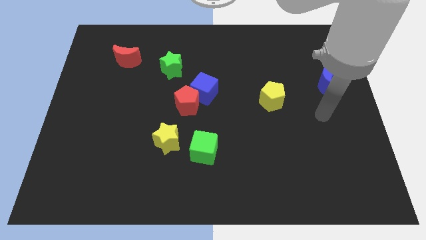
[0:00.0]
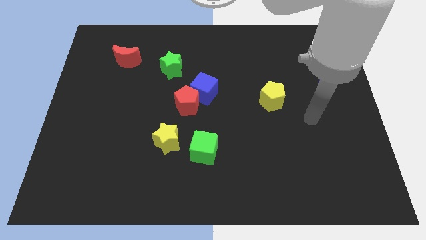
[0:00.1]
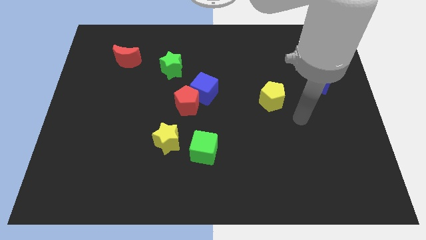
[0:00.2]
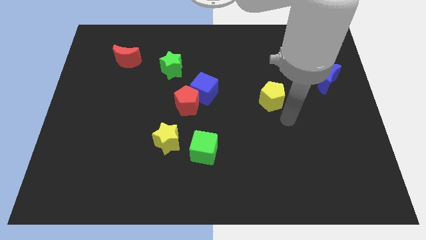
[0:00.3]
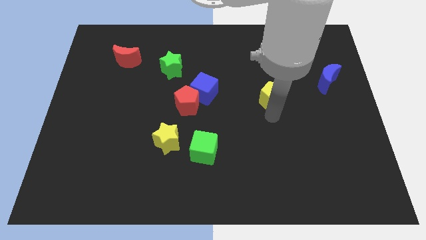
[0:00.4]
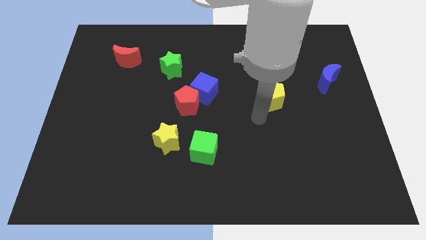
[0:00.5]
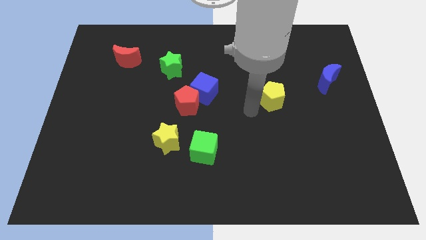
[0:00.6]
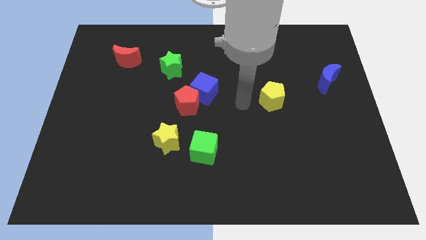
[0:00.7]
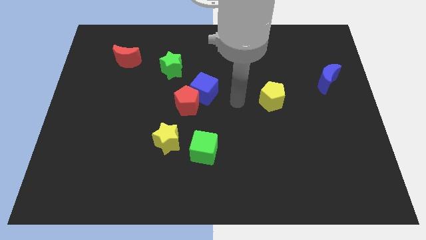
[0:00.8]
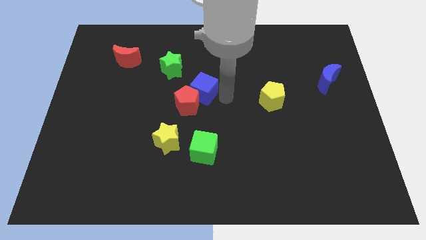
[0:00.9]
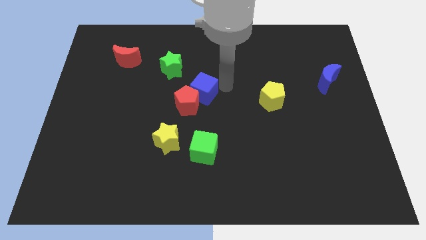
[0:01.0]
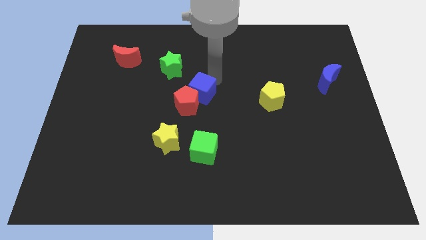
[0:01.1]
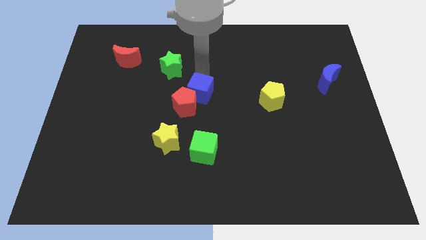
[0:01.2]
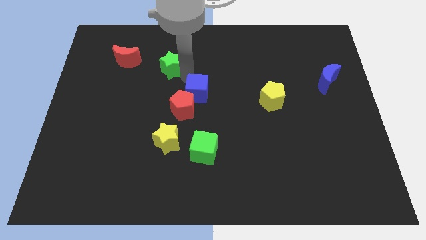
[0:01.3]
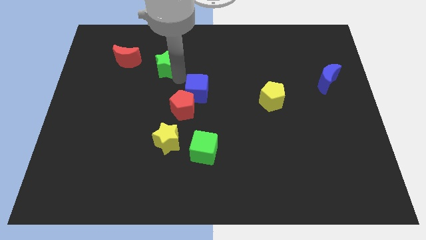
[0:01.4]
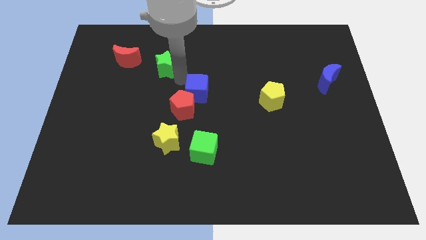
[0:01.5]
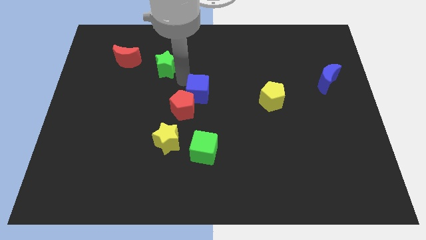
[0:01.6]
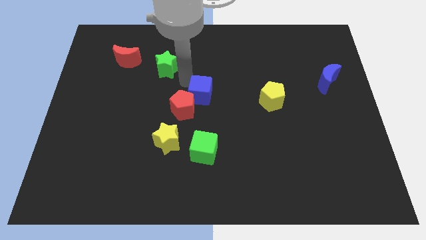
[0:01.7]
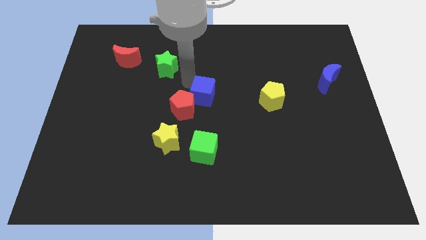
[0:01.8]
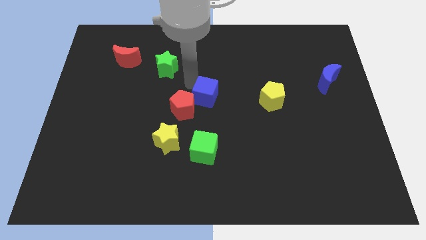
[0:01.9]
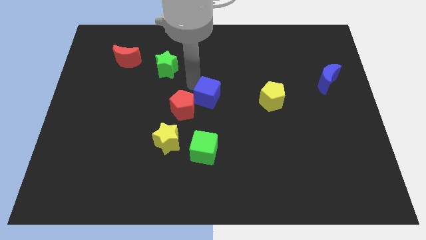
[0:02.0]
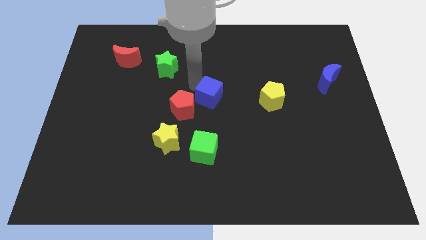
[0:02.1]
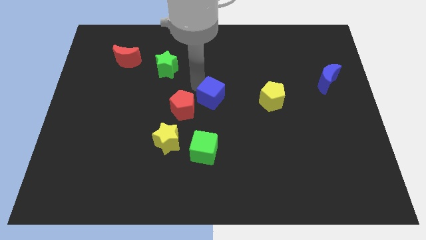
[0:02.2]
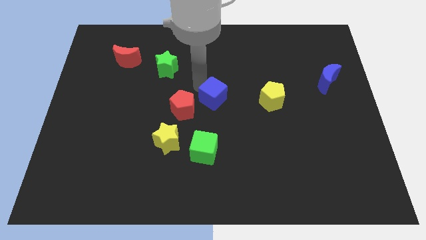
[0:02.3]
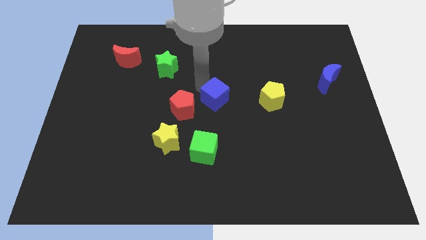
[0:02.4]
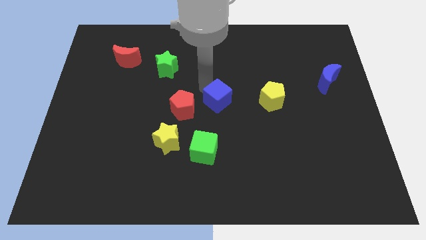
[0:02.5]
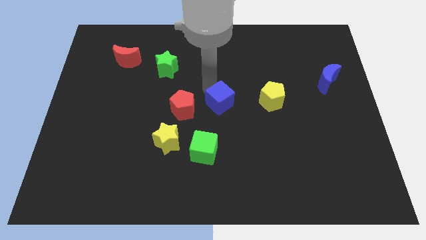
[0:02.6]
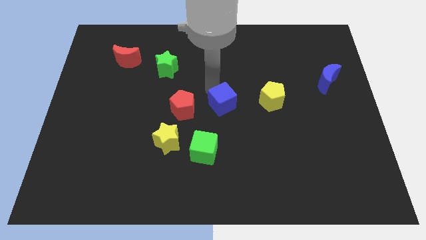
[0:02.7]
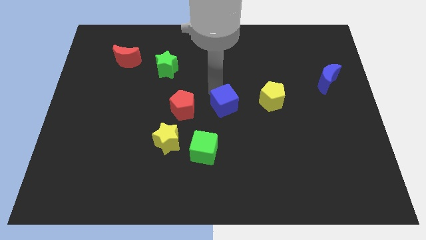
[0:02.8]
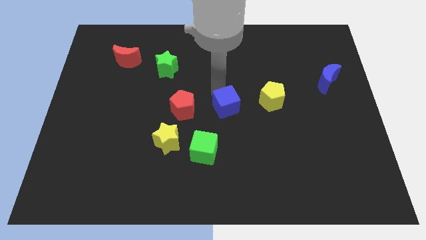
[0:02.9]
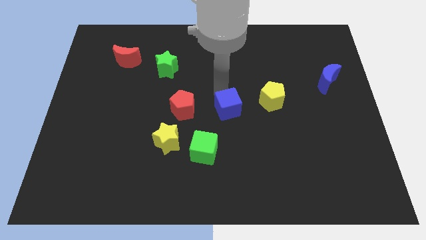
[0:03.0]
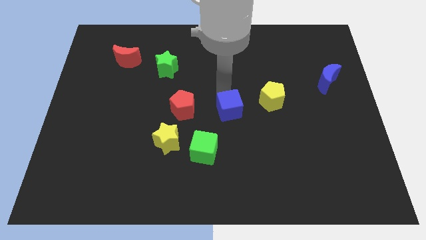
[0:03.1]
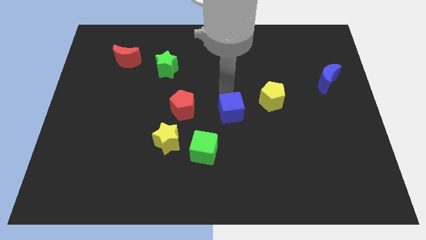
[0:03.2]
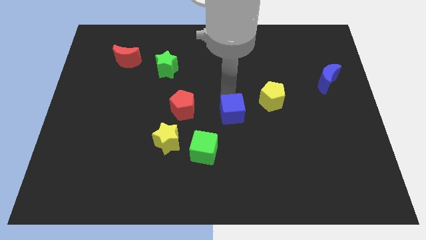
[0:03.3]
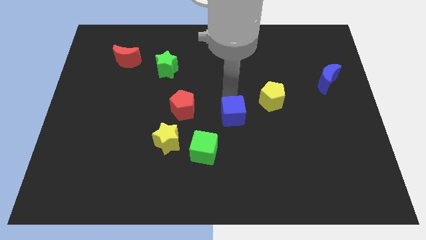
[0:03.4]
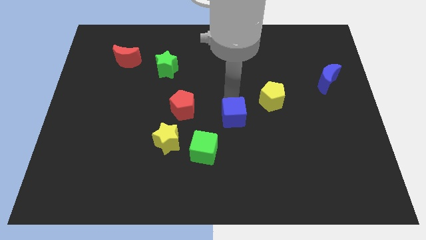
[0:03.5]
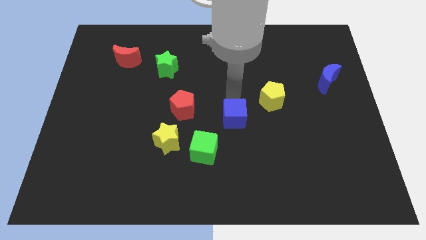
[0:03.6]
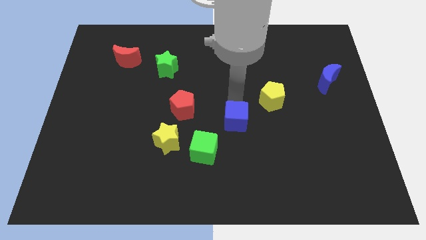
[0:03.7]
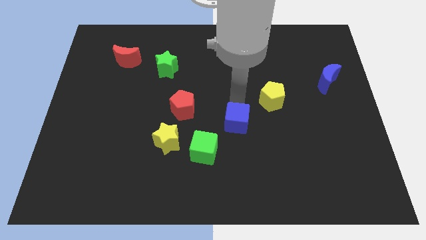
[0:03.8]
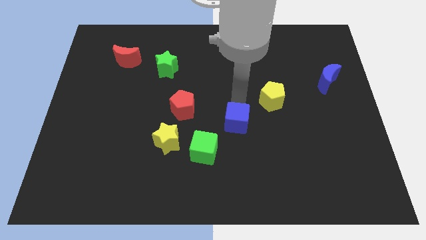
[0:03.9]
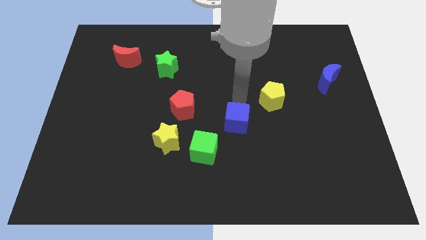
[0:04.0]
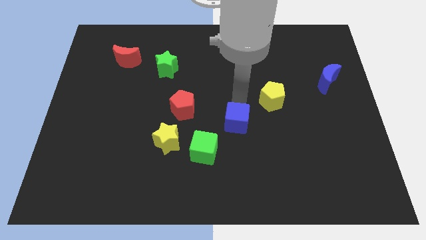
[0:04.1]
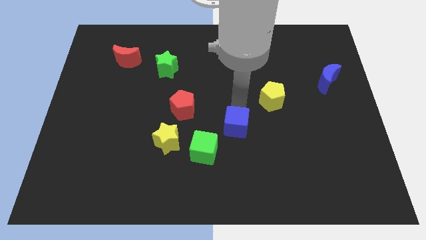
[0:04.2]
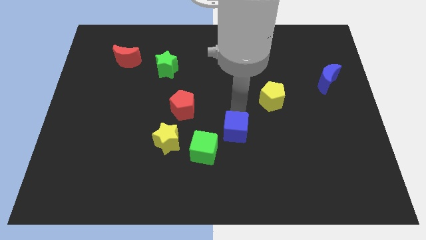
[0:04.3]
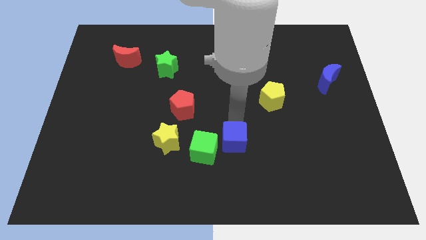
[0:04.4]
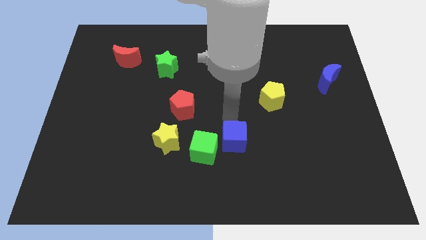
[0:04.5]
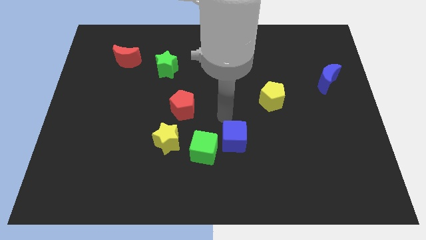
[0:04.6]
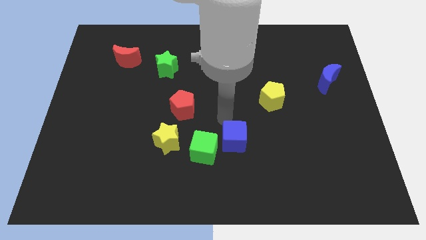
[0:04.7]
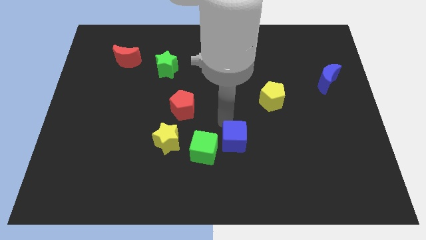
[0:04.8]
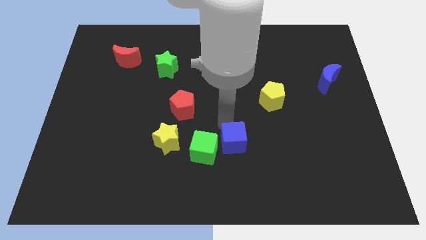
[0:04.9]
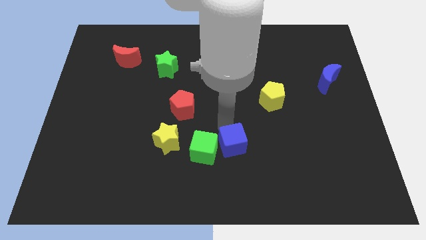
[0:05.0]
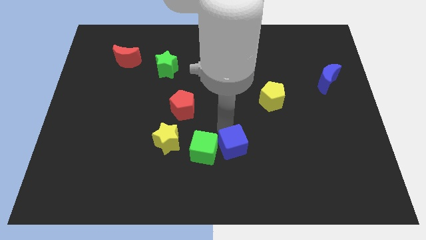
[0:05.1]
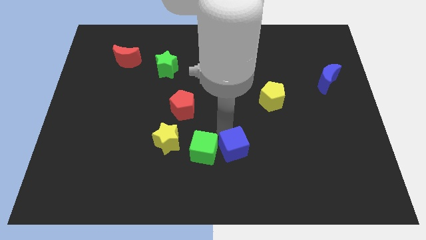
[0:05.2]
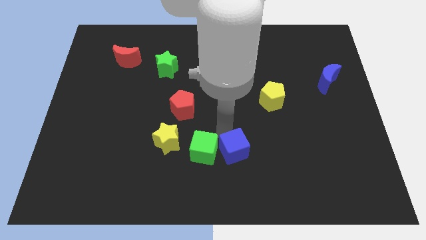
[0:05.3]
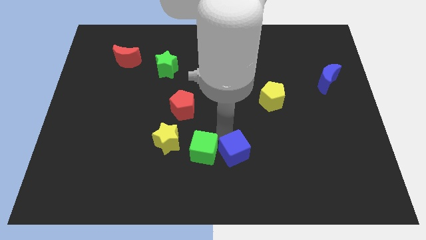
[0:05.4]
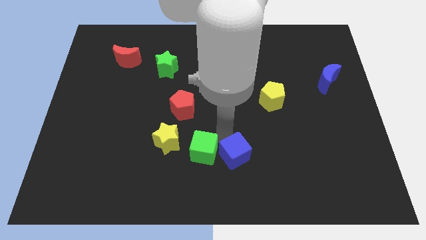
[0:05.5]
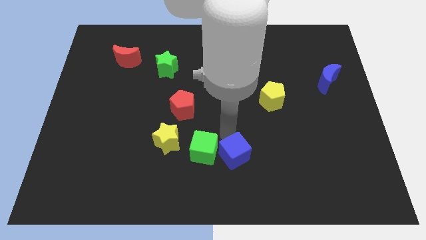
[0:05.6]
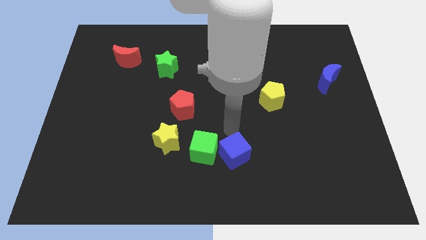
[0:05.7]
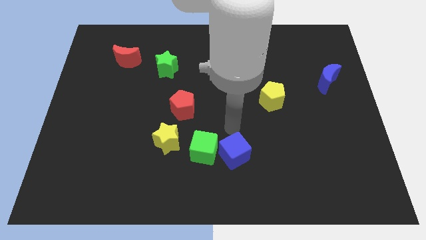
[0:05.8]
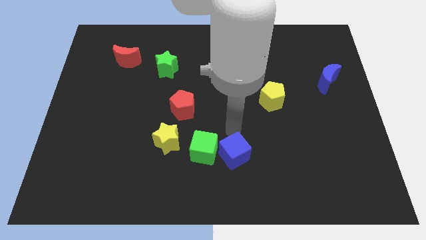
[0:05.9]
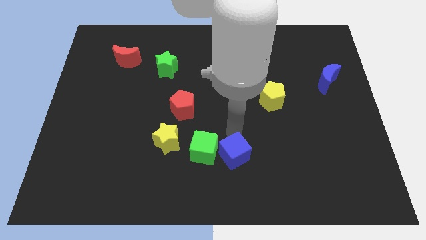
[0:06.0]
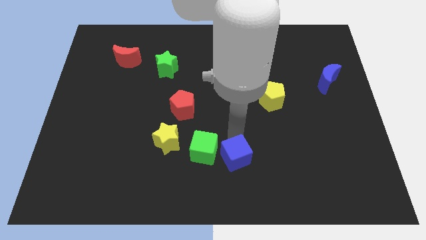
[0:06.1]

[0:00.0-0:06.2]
push the blue cube to the bottom
